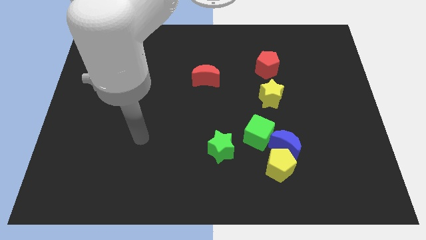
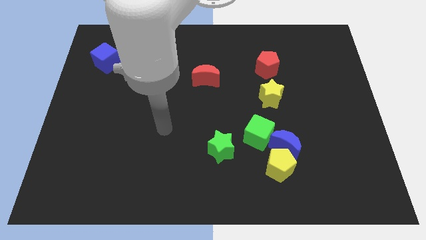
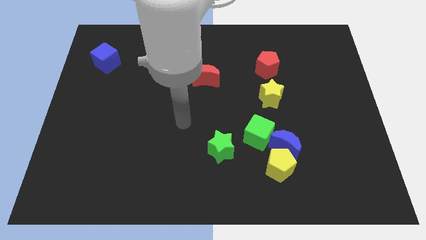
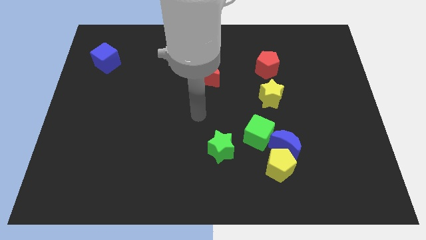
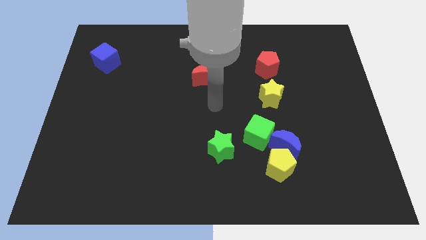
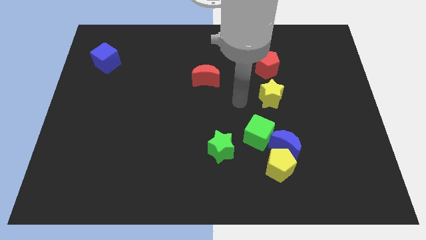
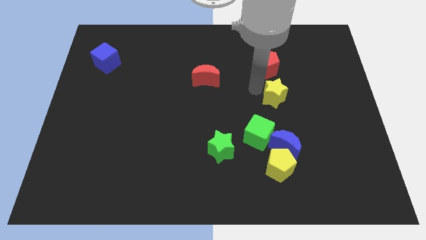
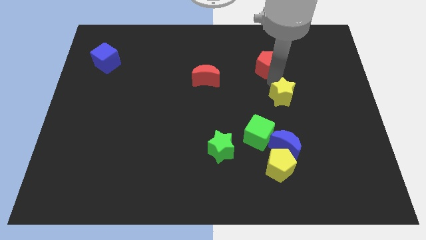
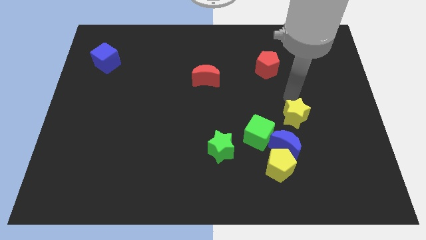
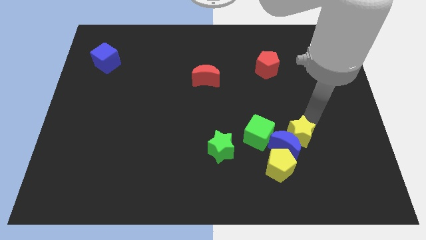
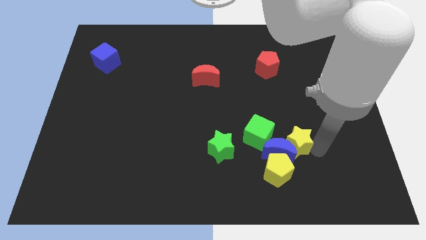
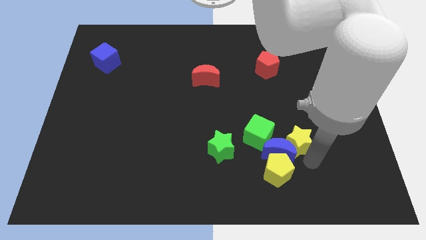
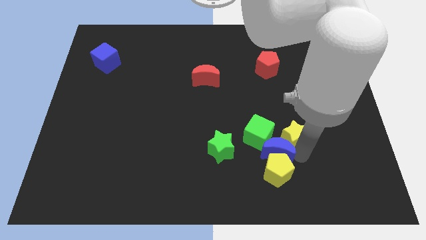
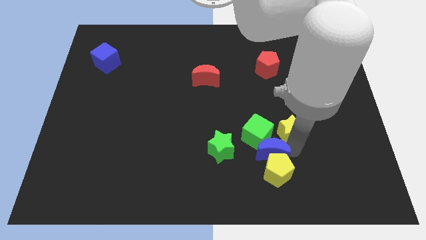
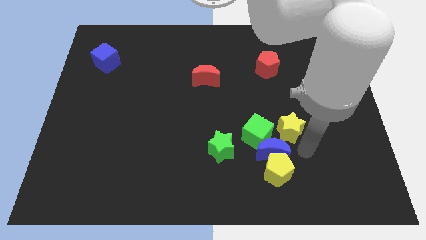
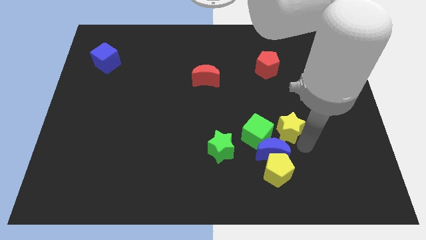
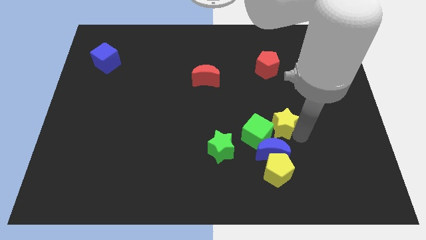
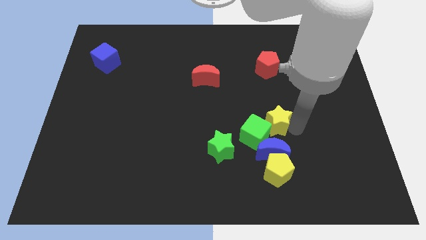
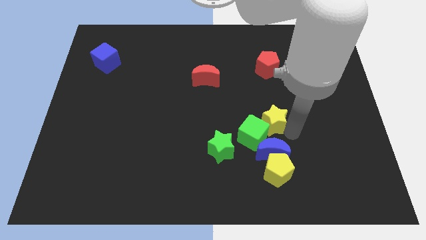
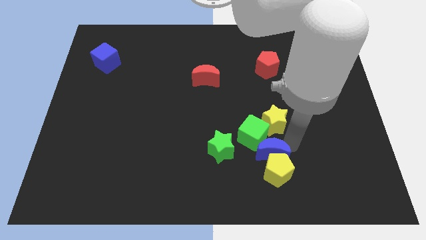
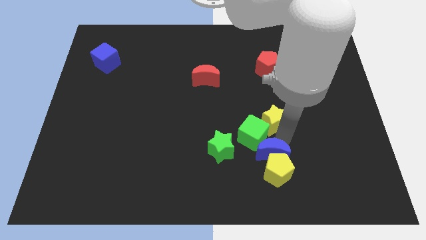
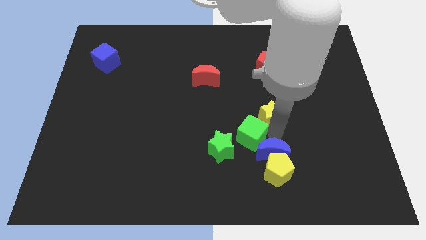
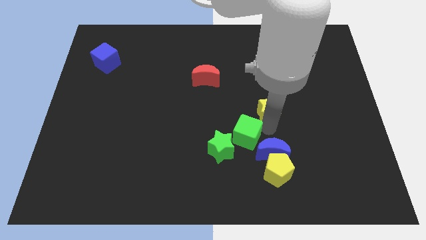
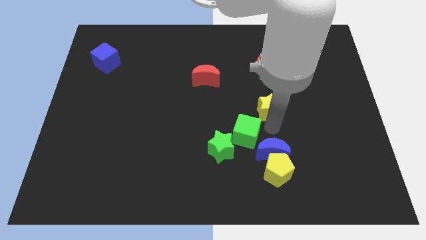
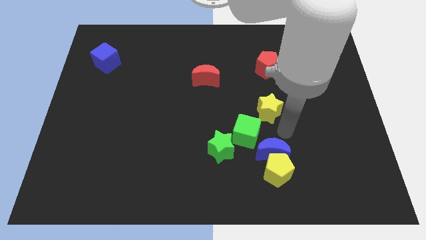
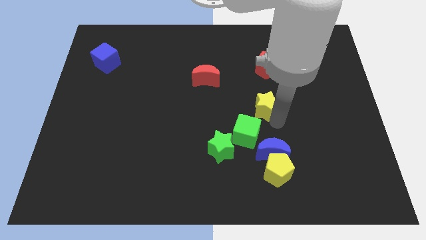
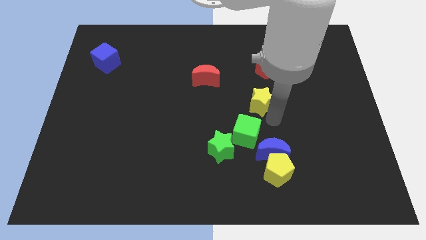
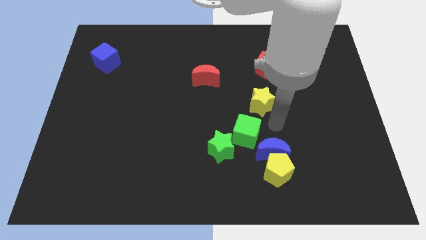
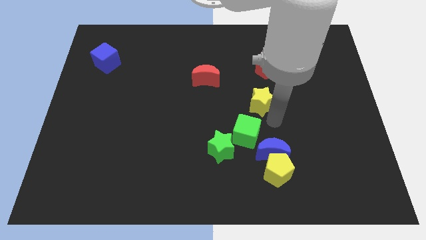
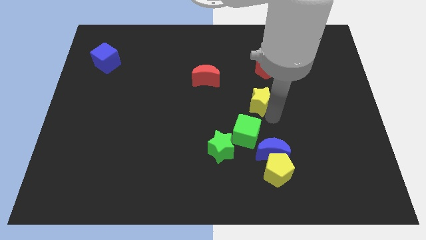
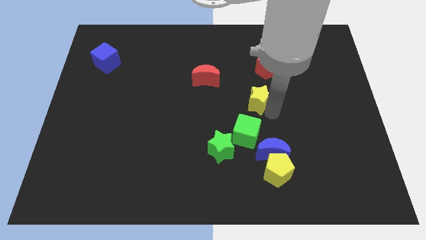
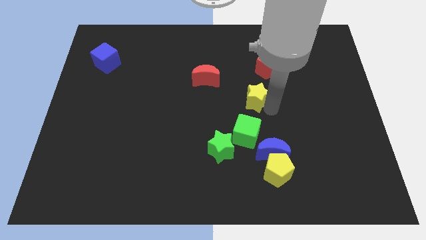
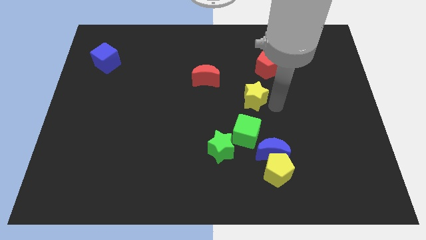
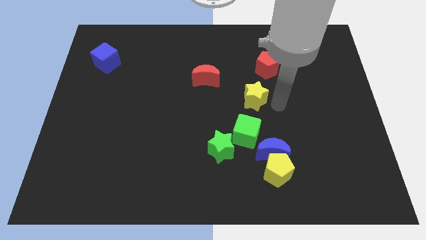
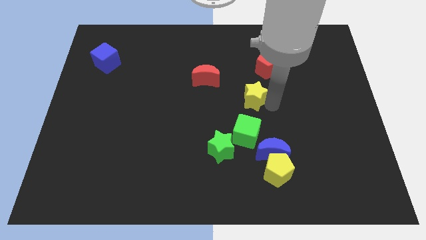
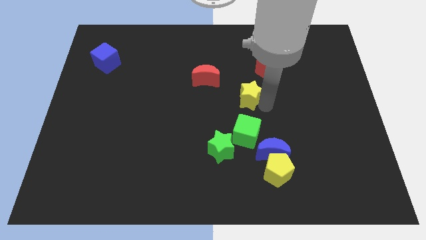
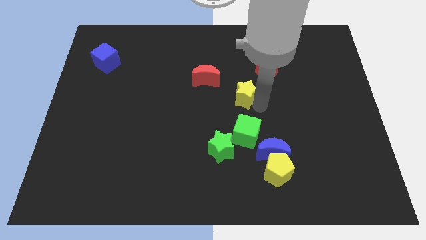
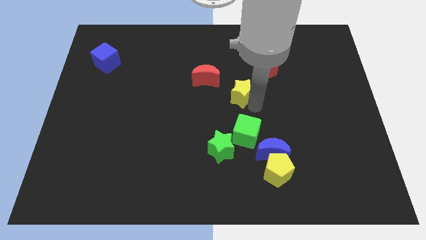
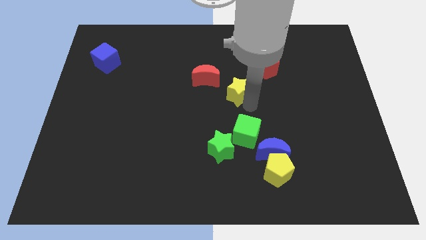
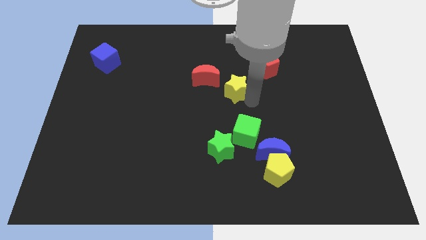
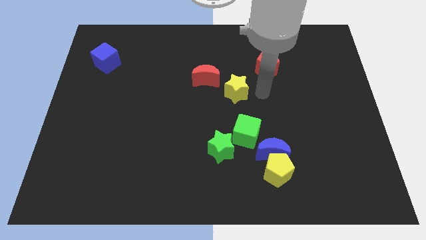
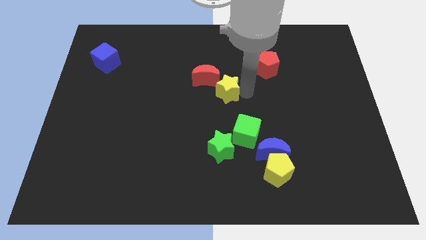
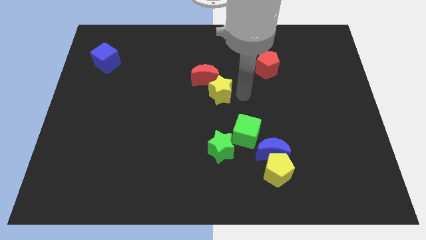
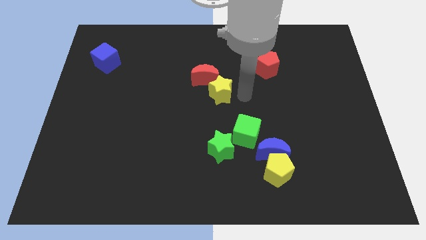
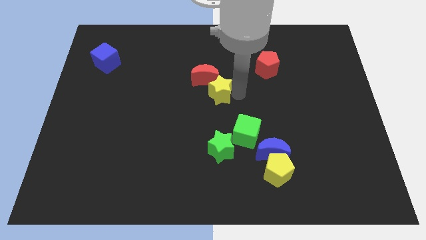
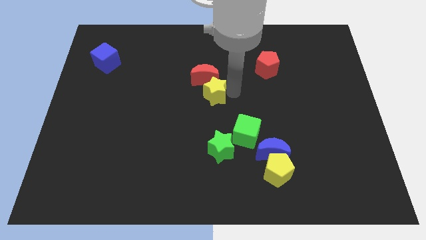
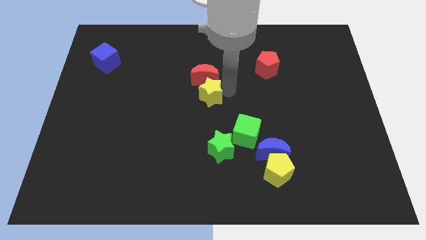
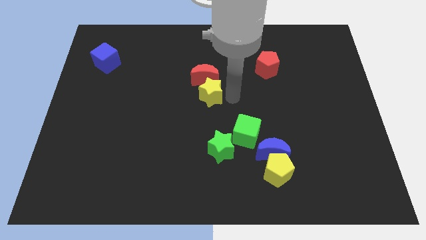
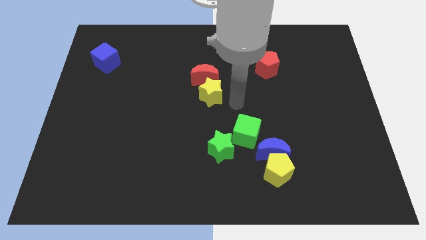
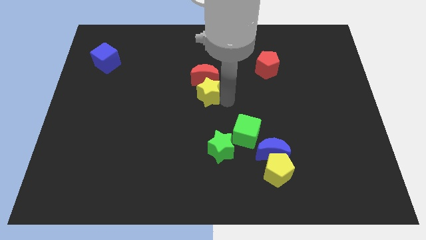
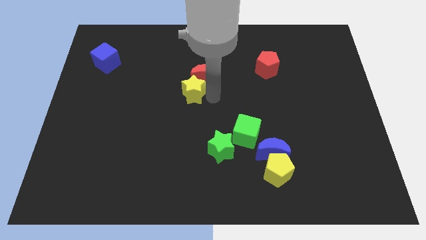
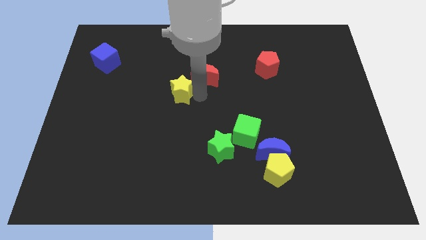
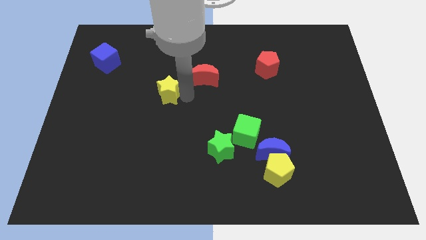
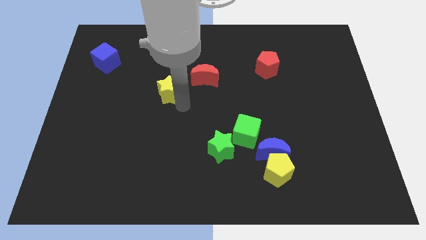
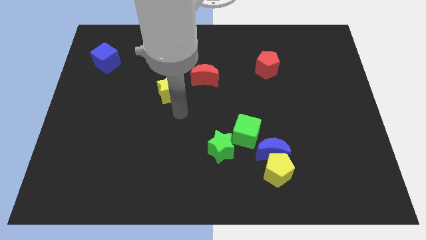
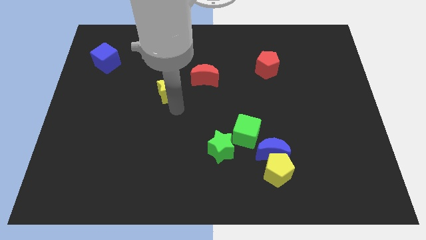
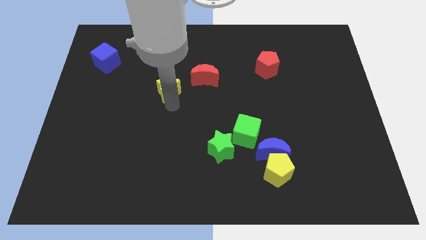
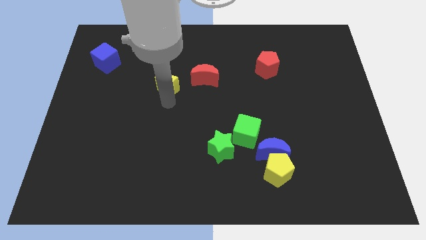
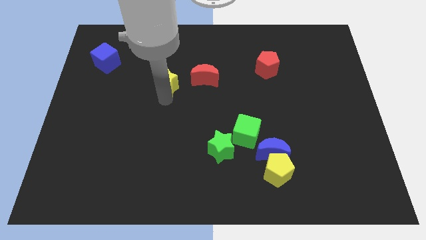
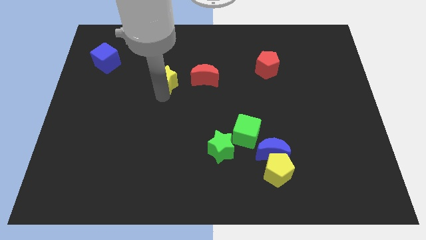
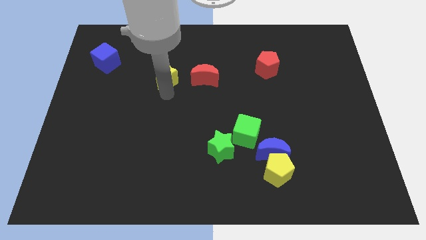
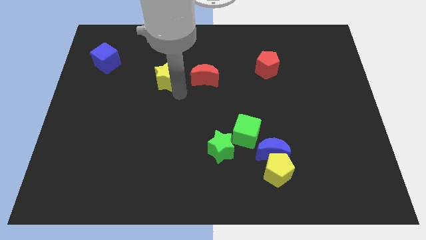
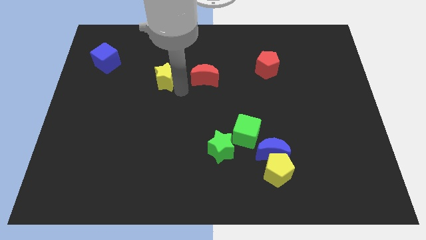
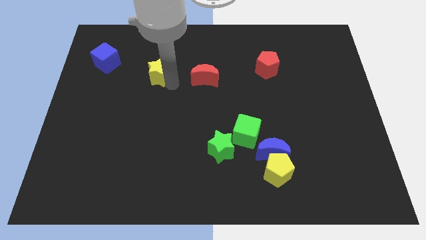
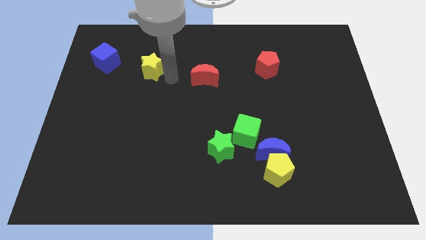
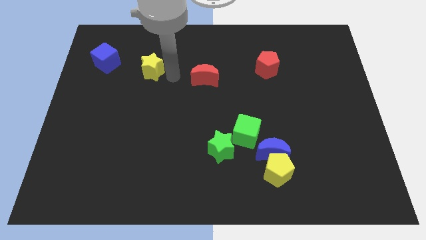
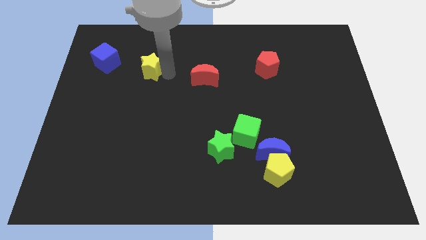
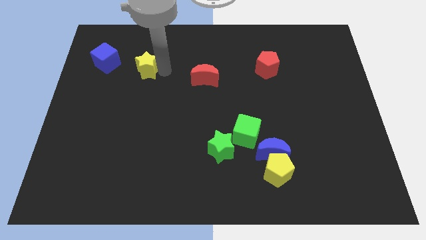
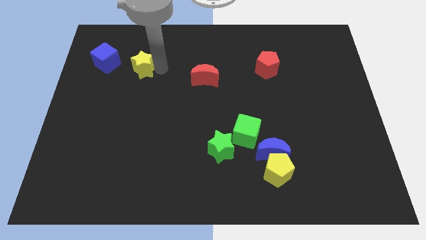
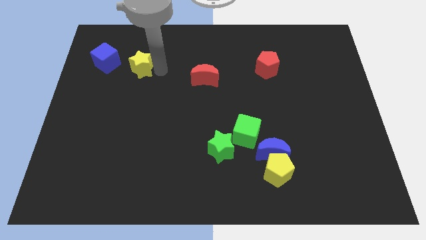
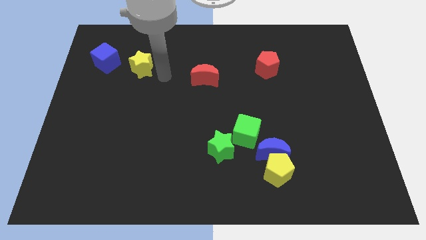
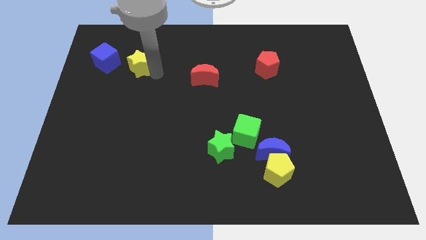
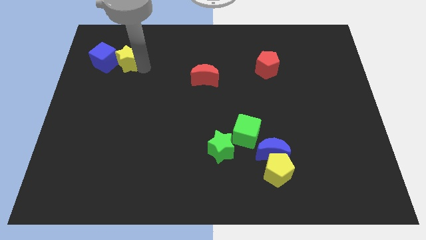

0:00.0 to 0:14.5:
put the yellow star close to the blue cube

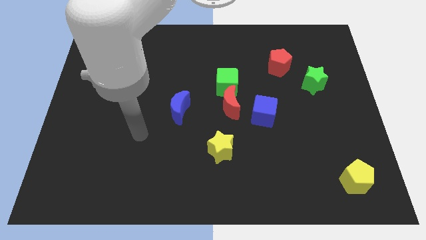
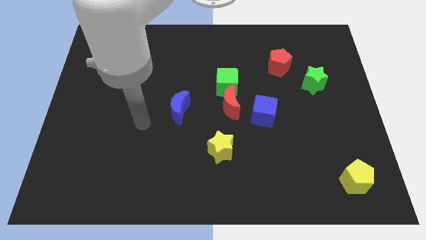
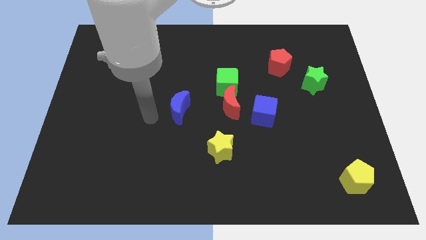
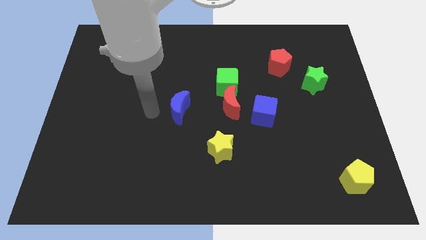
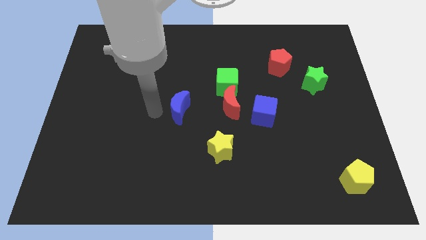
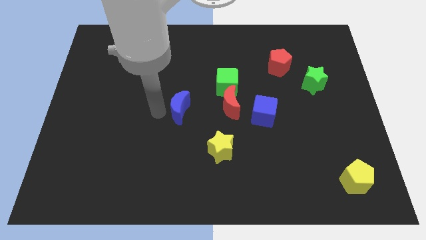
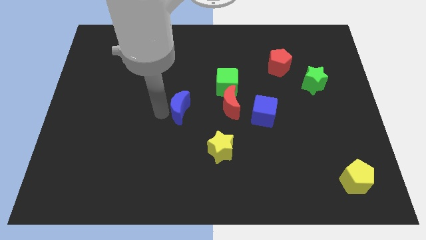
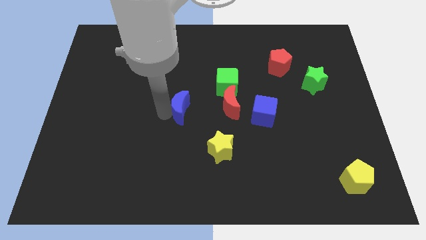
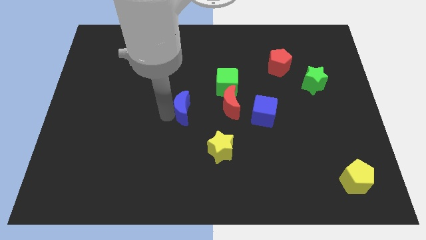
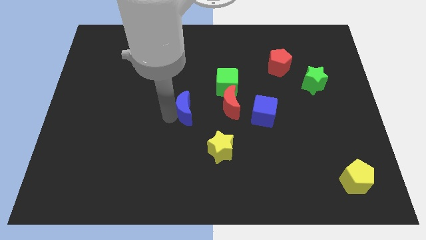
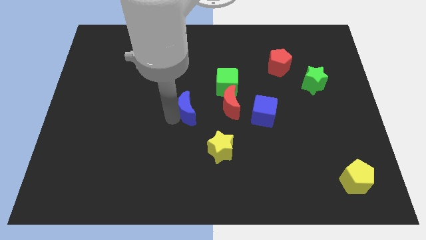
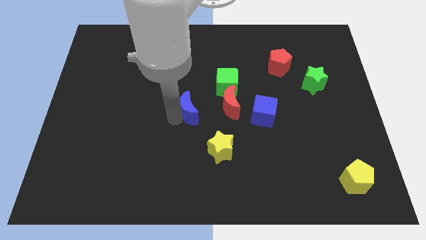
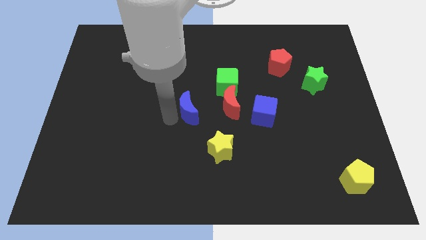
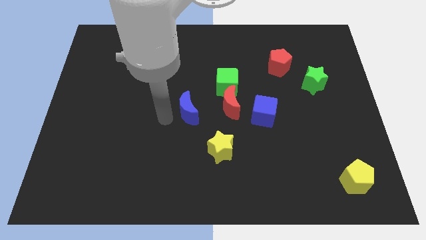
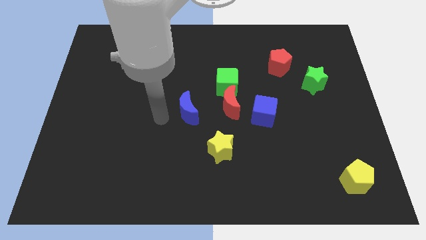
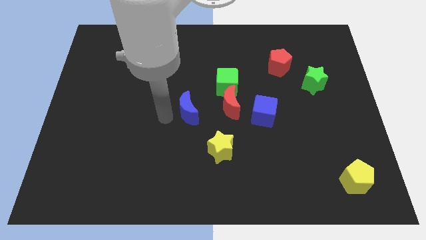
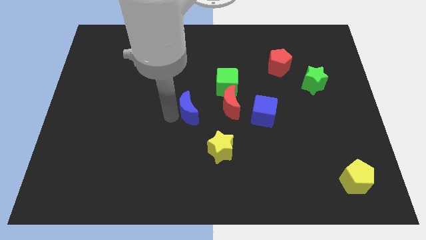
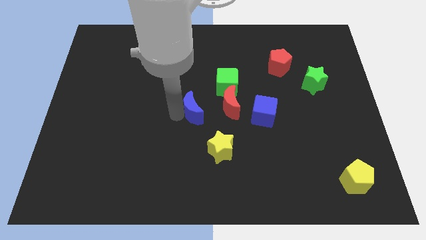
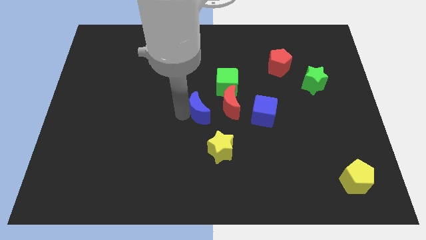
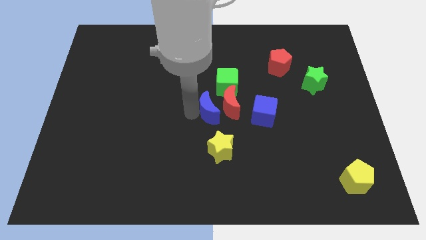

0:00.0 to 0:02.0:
put the blue moon to the red moon
